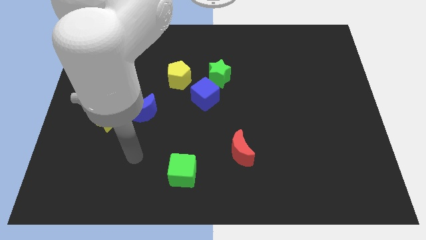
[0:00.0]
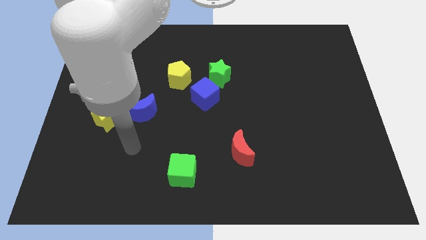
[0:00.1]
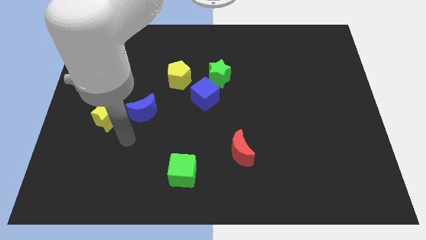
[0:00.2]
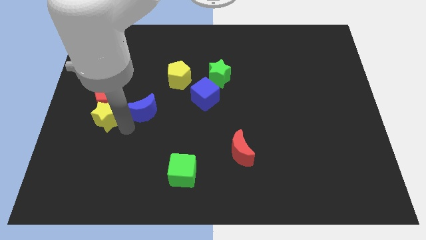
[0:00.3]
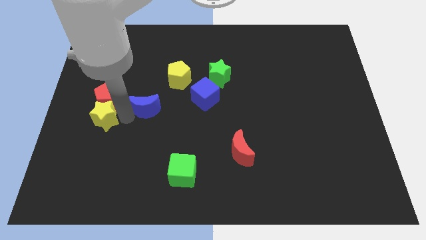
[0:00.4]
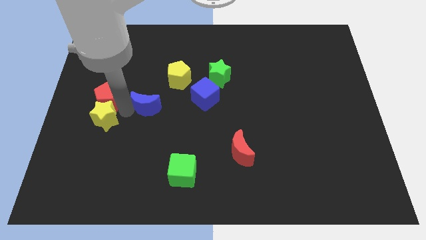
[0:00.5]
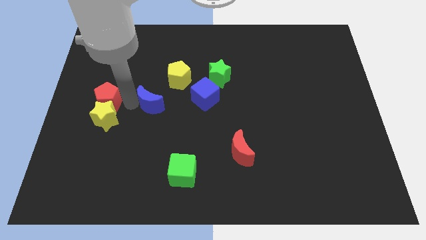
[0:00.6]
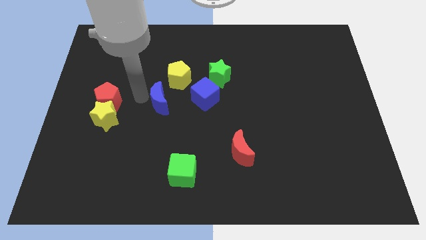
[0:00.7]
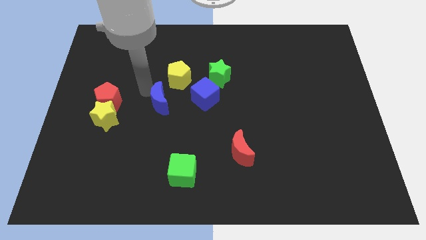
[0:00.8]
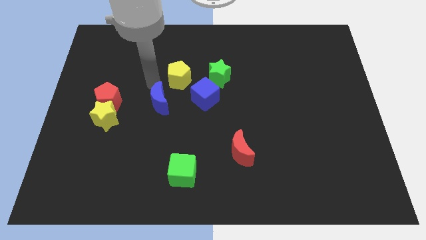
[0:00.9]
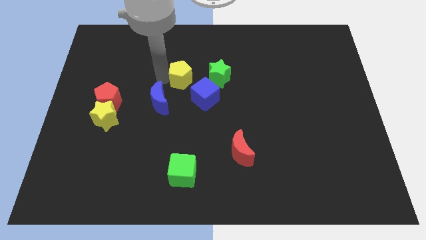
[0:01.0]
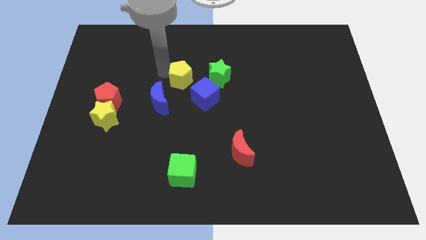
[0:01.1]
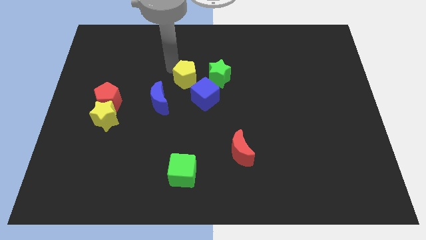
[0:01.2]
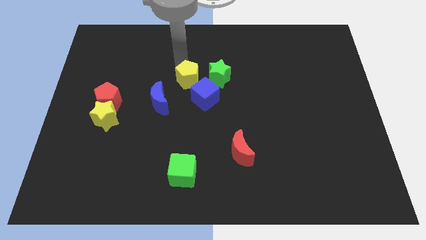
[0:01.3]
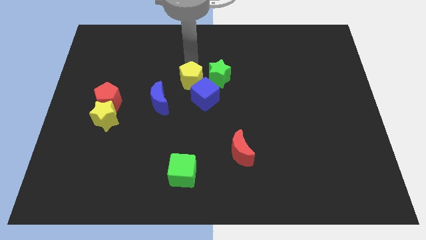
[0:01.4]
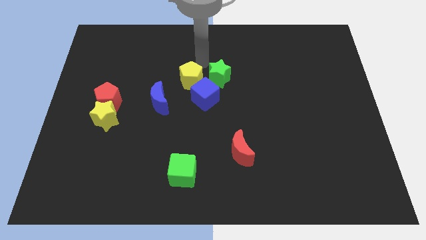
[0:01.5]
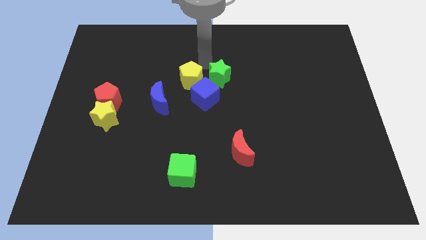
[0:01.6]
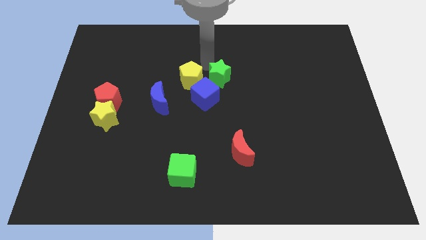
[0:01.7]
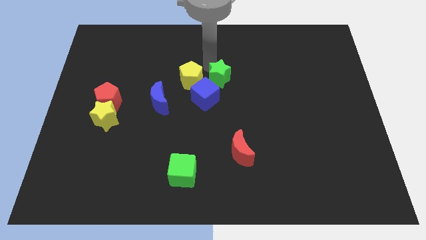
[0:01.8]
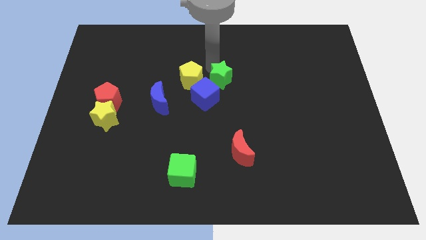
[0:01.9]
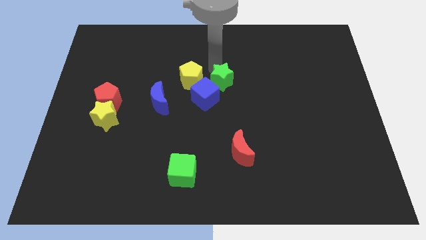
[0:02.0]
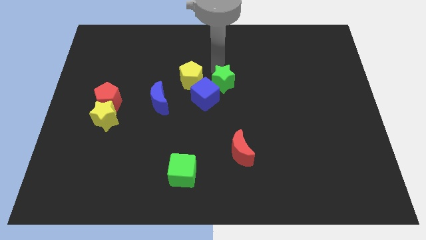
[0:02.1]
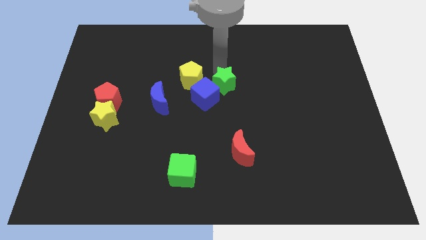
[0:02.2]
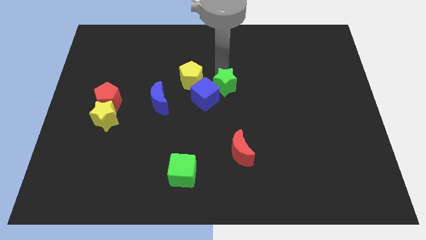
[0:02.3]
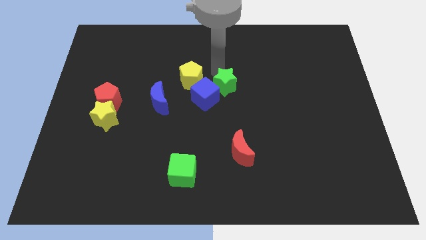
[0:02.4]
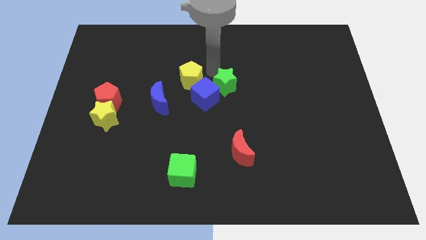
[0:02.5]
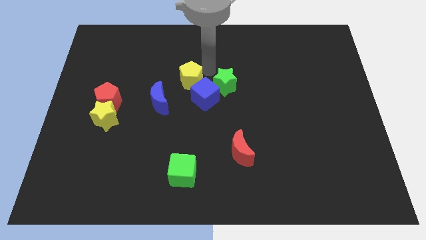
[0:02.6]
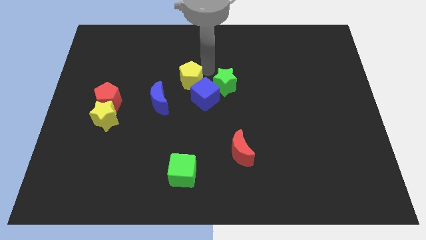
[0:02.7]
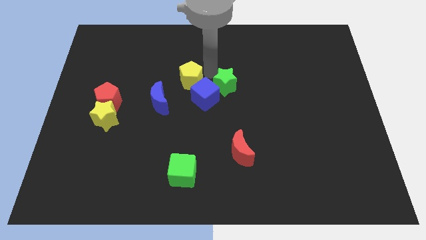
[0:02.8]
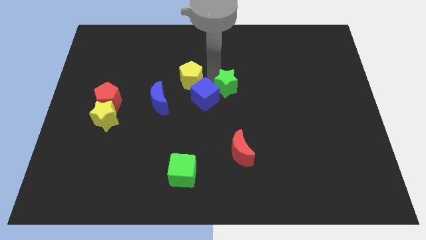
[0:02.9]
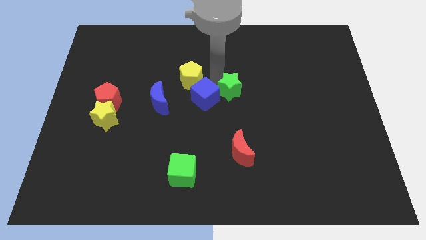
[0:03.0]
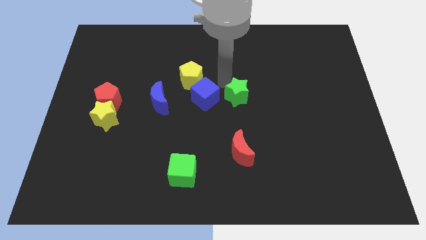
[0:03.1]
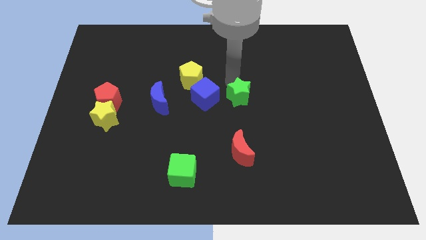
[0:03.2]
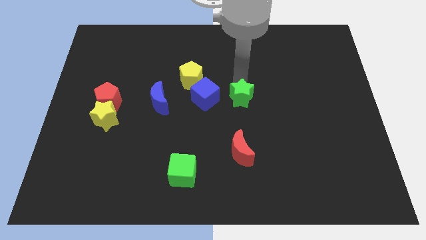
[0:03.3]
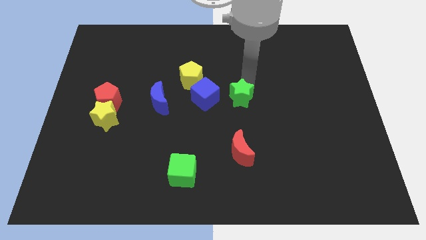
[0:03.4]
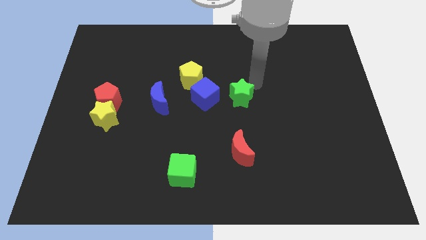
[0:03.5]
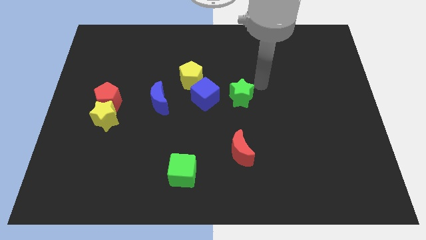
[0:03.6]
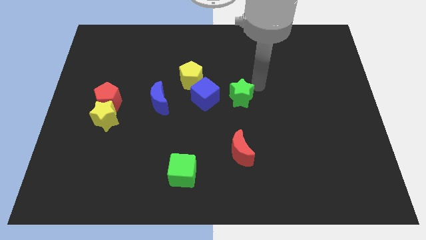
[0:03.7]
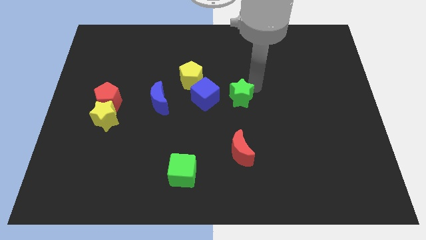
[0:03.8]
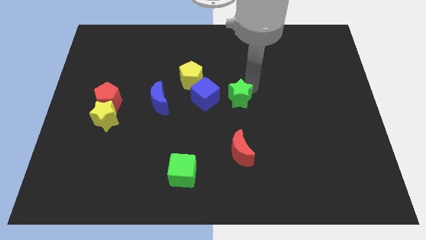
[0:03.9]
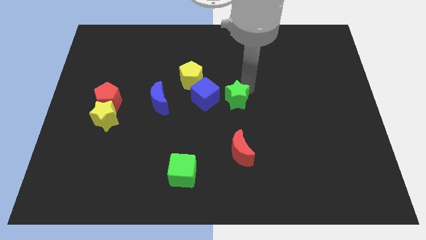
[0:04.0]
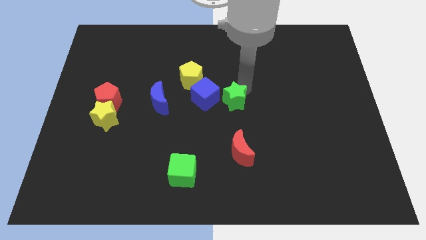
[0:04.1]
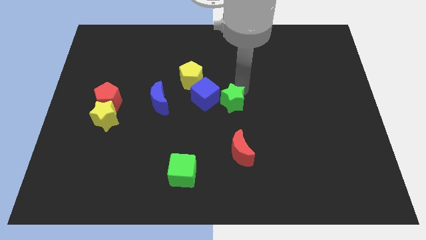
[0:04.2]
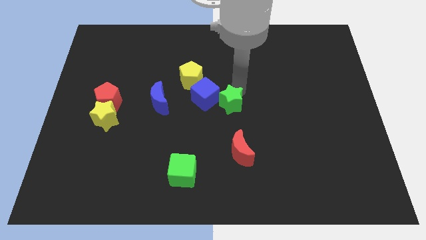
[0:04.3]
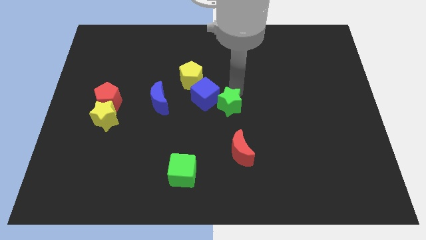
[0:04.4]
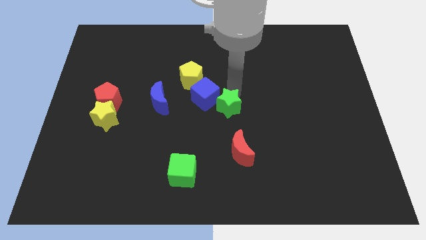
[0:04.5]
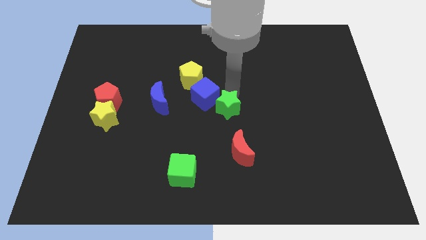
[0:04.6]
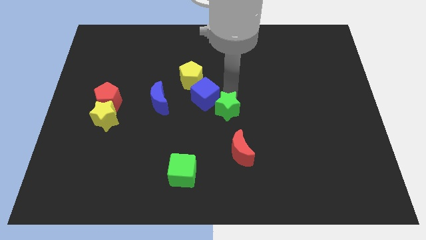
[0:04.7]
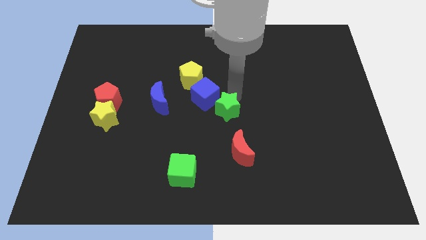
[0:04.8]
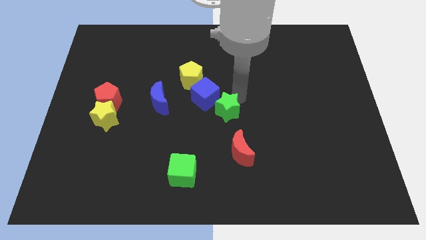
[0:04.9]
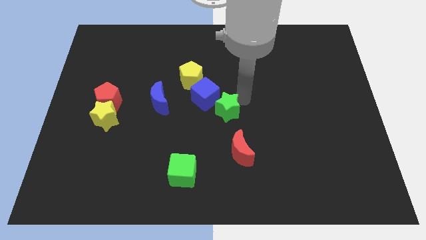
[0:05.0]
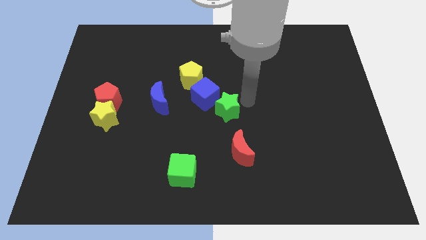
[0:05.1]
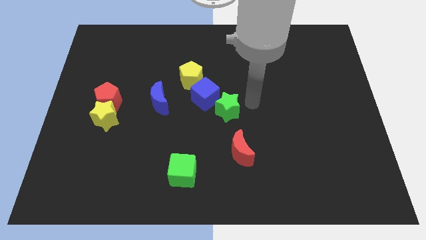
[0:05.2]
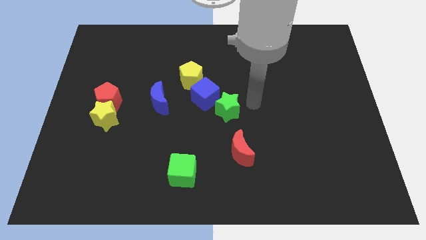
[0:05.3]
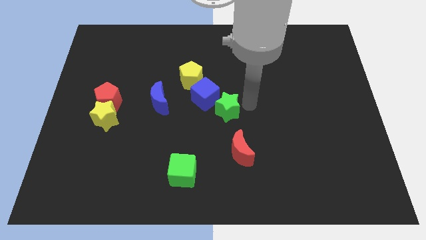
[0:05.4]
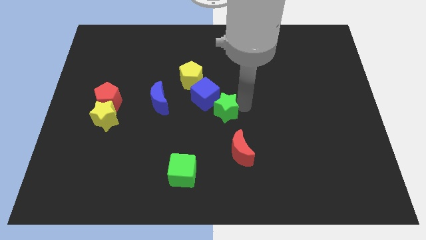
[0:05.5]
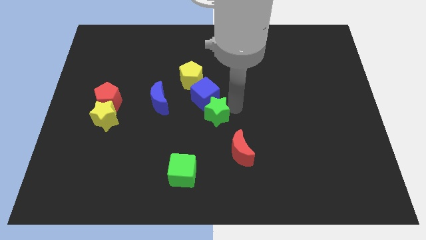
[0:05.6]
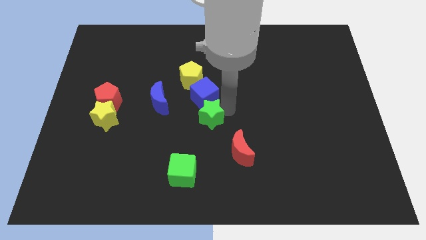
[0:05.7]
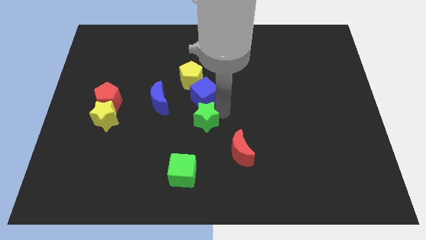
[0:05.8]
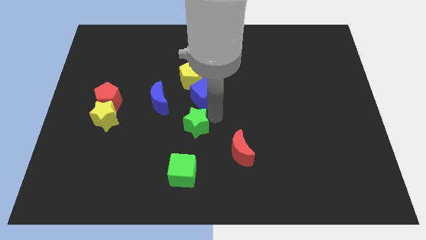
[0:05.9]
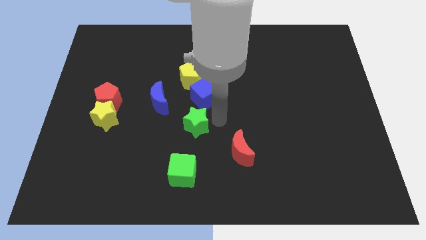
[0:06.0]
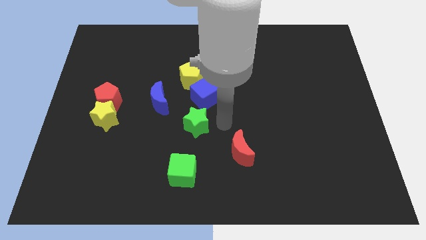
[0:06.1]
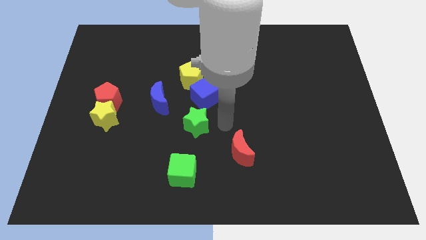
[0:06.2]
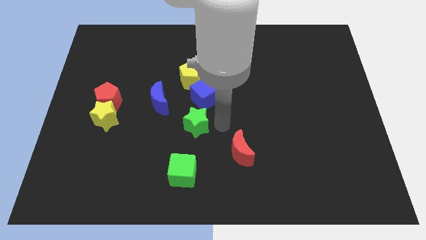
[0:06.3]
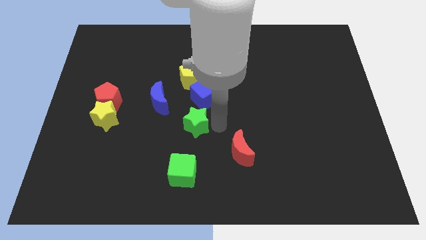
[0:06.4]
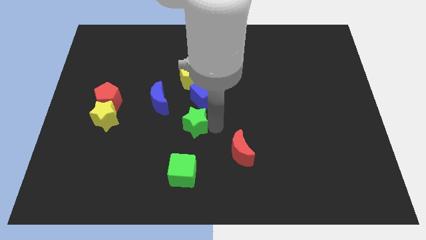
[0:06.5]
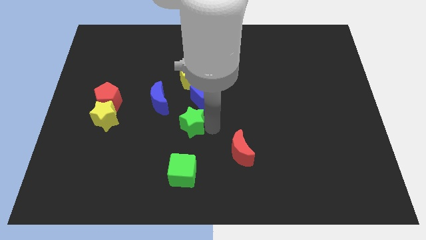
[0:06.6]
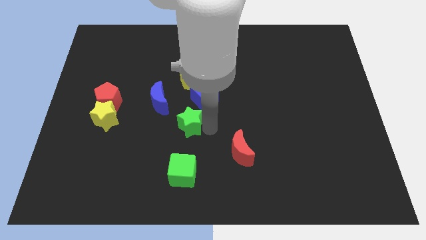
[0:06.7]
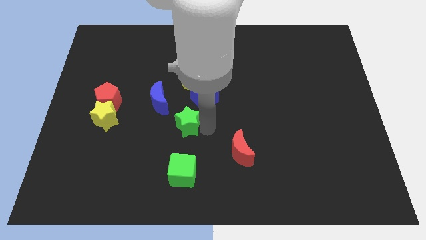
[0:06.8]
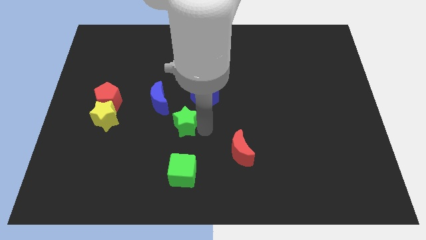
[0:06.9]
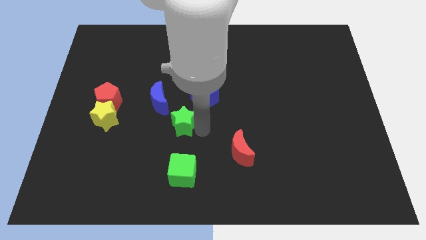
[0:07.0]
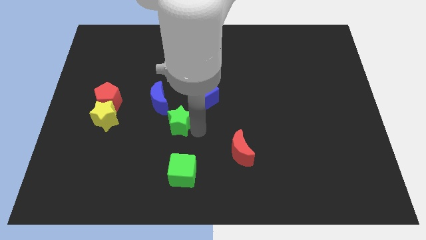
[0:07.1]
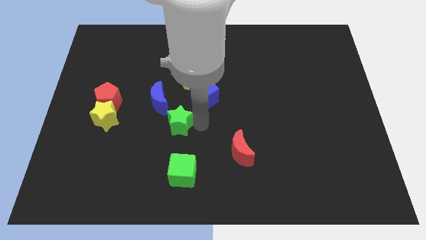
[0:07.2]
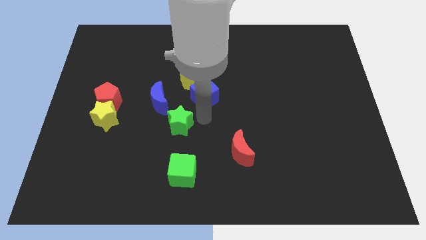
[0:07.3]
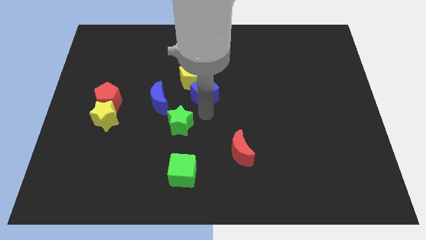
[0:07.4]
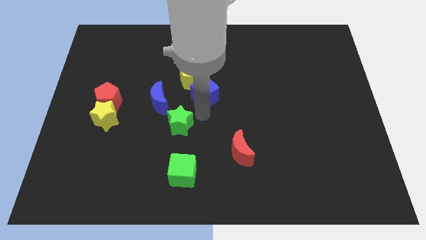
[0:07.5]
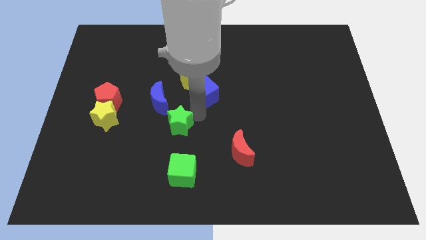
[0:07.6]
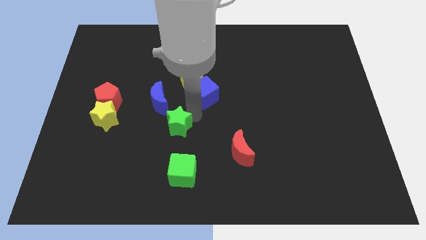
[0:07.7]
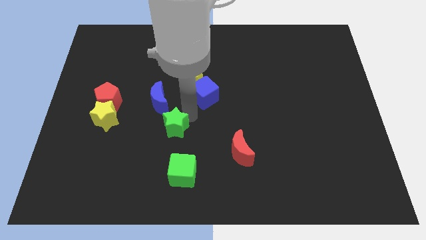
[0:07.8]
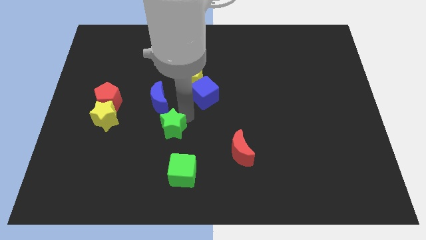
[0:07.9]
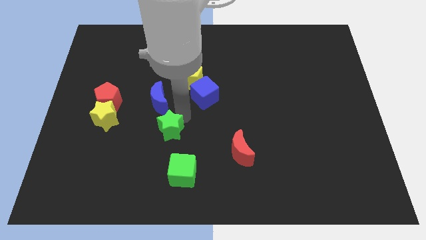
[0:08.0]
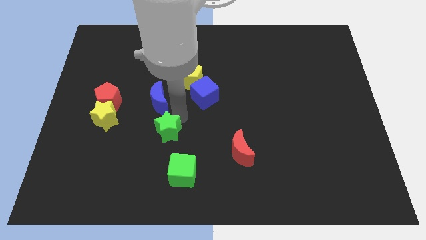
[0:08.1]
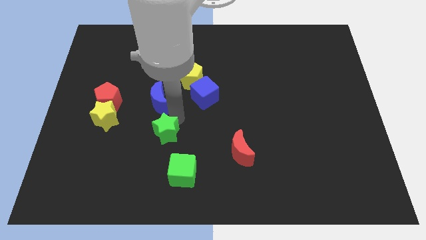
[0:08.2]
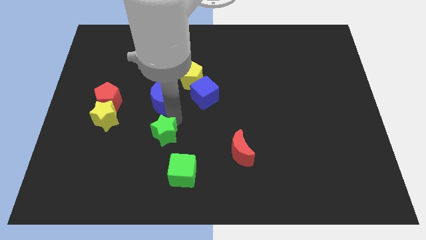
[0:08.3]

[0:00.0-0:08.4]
move the green star down and to the left diagonally
